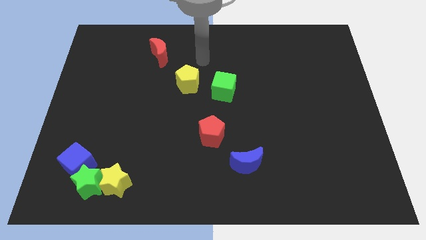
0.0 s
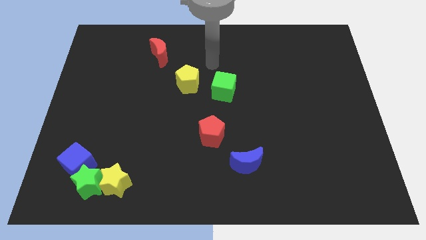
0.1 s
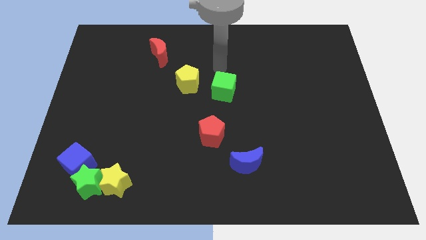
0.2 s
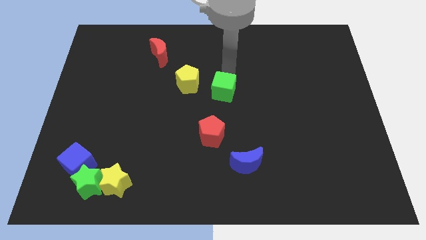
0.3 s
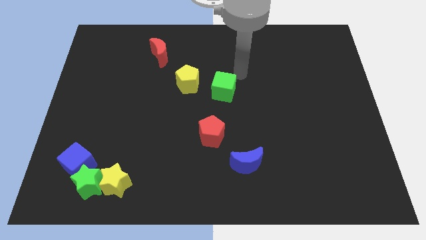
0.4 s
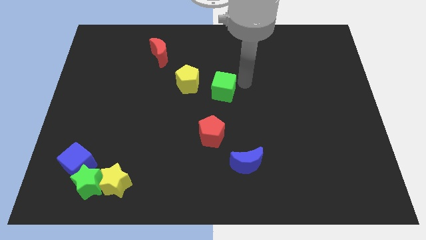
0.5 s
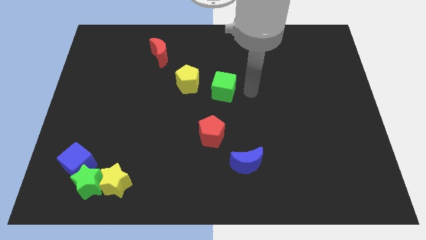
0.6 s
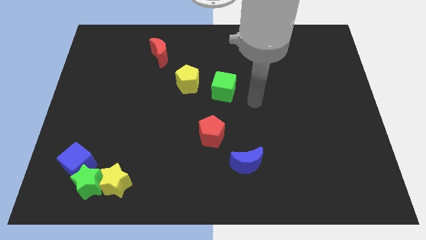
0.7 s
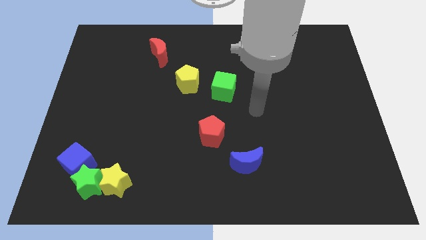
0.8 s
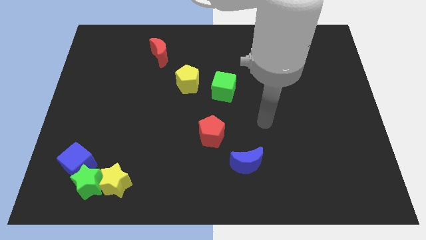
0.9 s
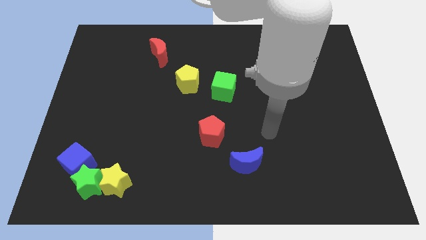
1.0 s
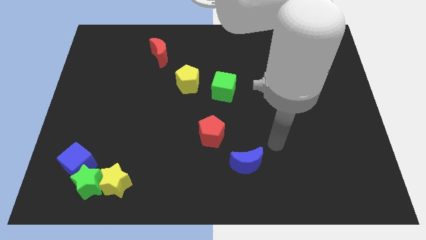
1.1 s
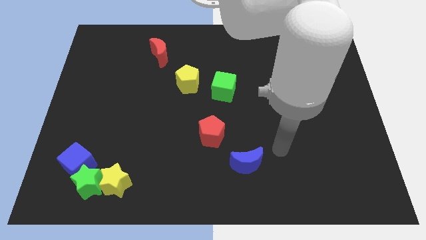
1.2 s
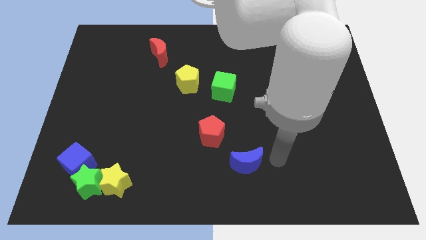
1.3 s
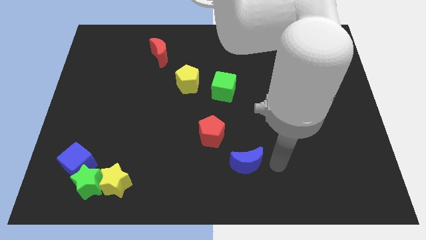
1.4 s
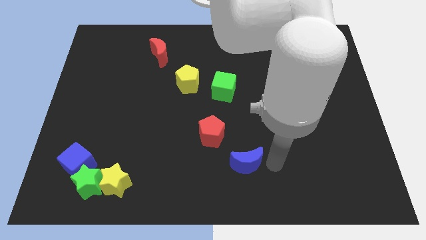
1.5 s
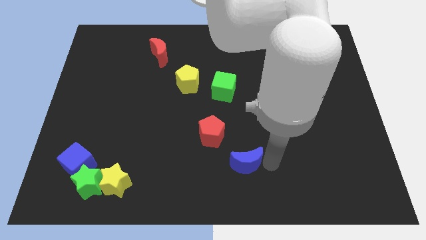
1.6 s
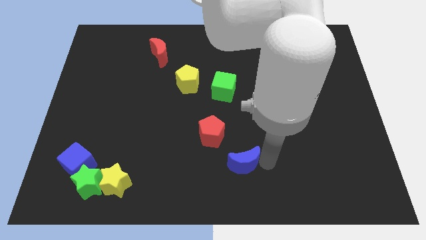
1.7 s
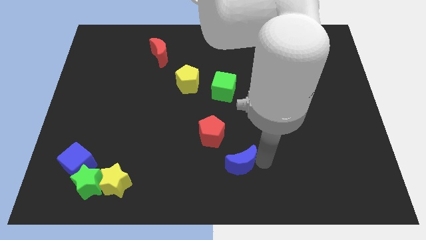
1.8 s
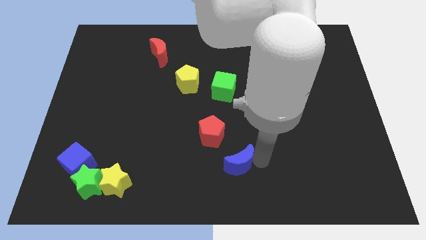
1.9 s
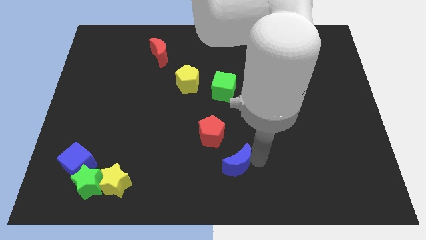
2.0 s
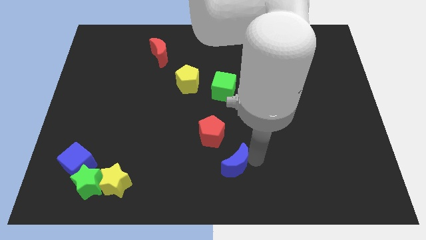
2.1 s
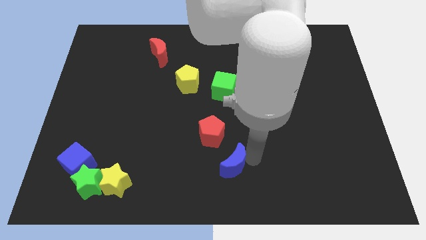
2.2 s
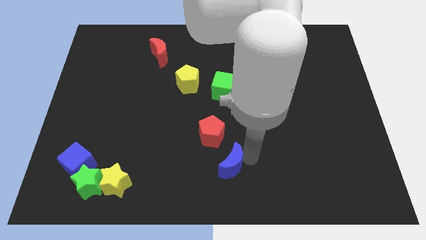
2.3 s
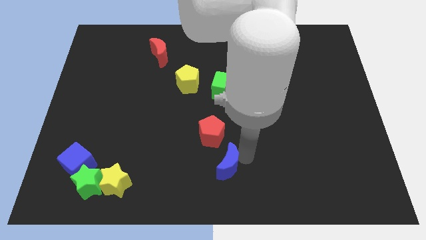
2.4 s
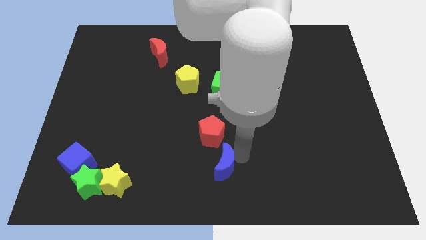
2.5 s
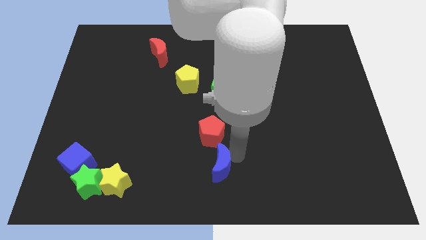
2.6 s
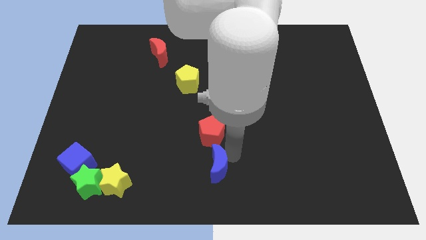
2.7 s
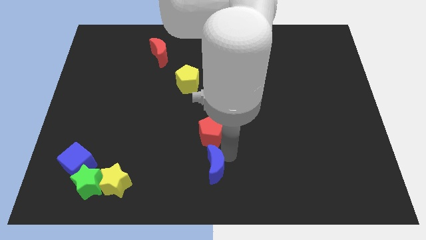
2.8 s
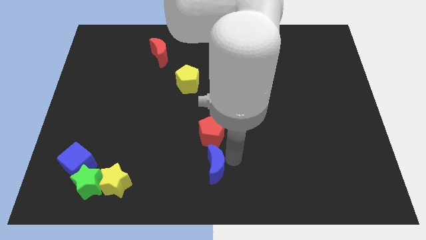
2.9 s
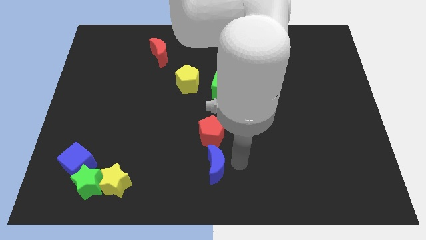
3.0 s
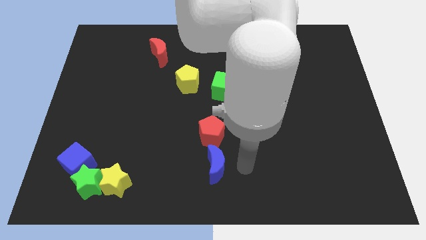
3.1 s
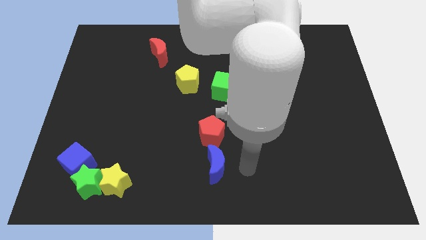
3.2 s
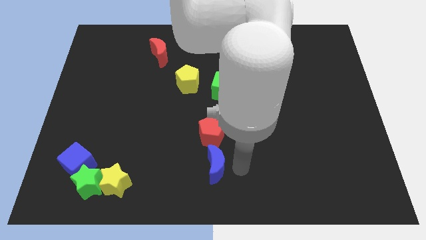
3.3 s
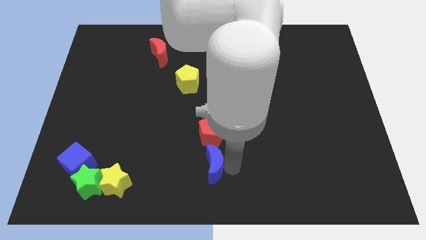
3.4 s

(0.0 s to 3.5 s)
push the blue moon to the left slightly

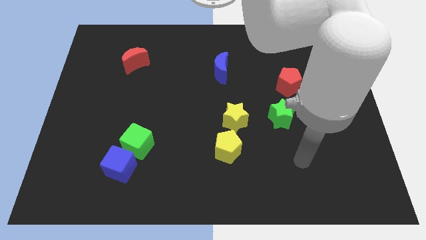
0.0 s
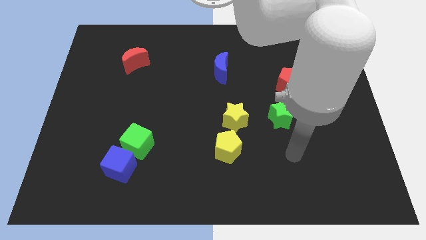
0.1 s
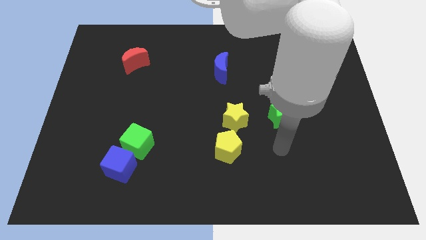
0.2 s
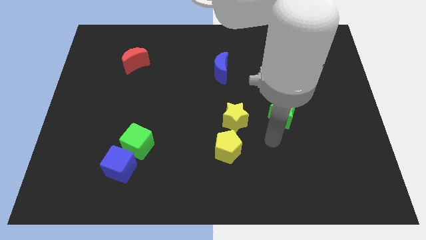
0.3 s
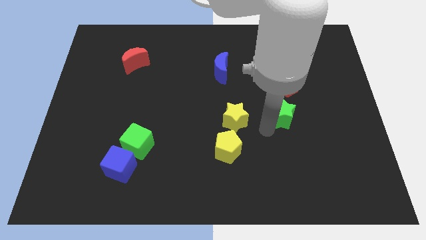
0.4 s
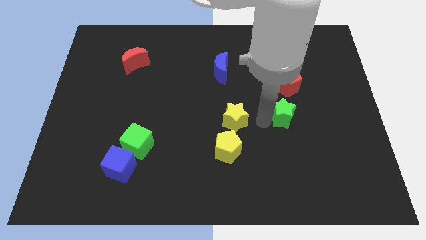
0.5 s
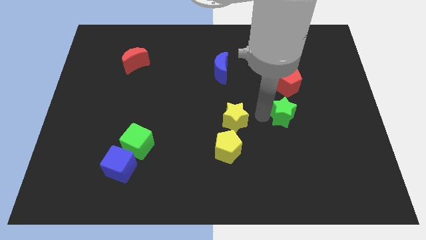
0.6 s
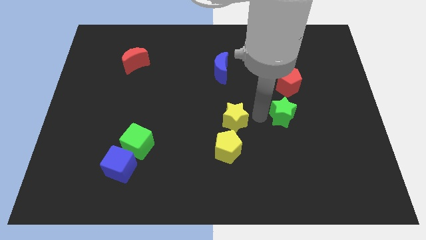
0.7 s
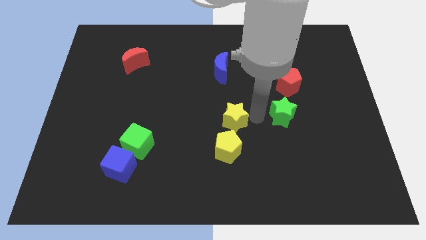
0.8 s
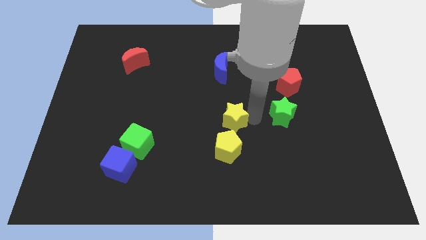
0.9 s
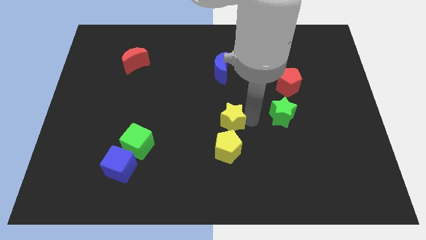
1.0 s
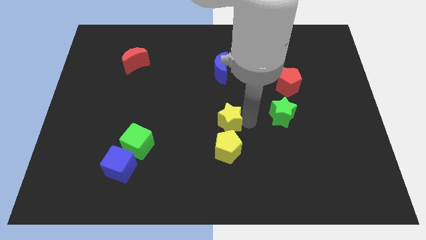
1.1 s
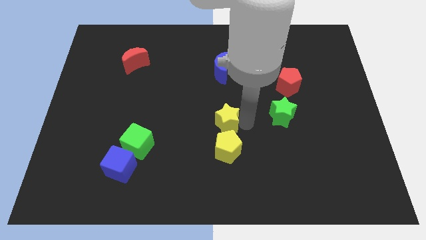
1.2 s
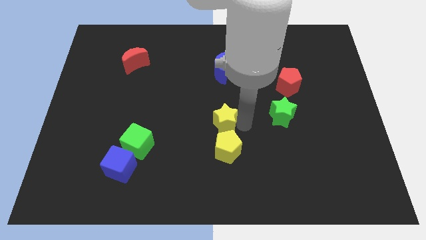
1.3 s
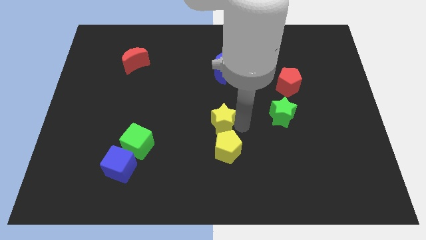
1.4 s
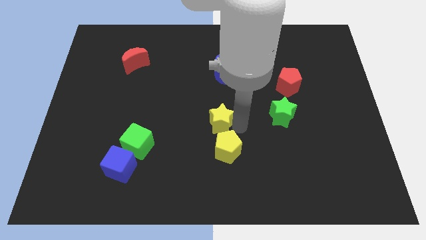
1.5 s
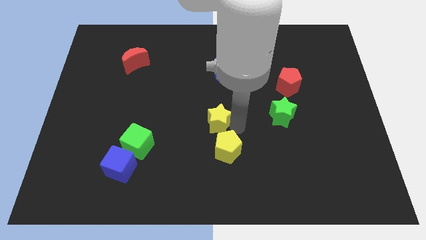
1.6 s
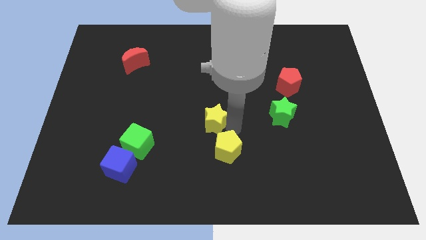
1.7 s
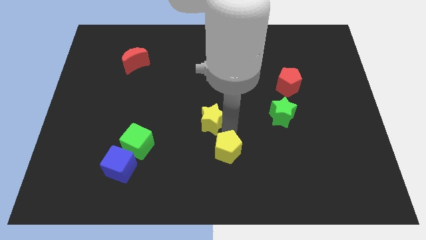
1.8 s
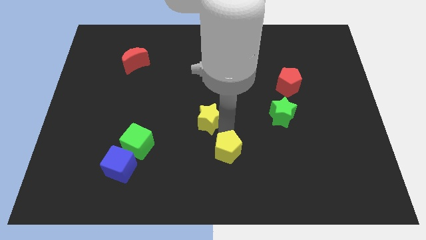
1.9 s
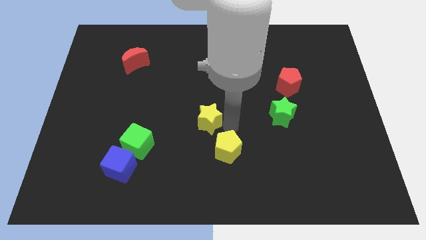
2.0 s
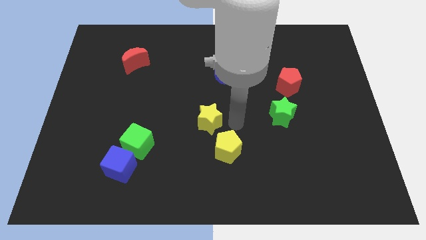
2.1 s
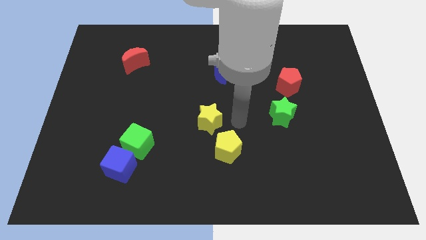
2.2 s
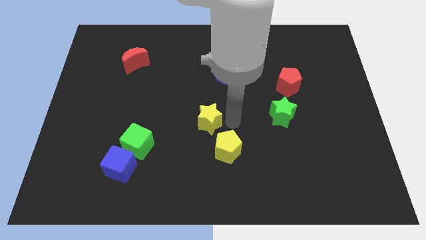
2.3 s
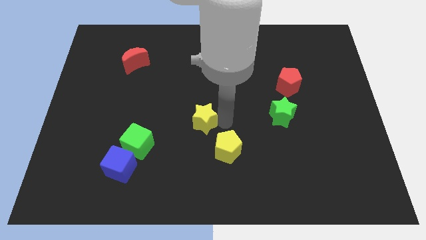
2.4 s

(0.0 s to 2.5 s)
slide the yellow star to the left slightly

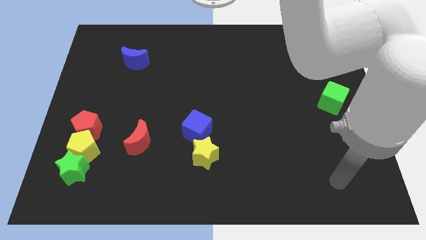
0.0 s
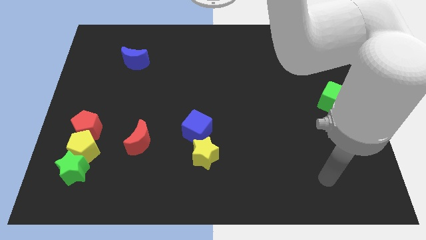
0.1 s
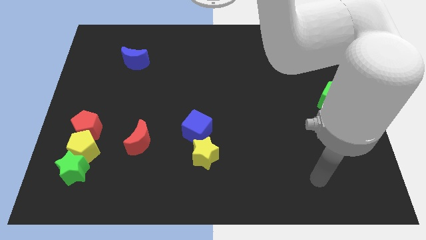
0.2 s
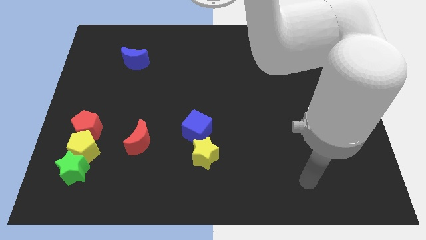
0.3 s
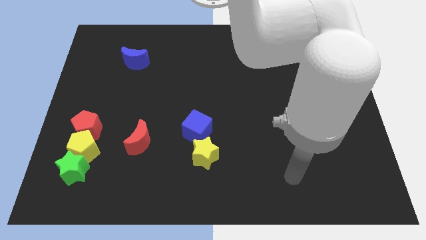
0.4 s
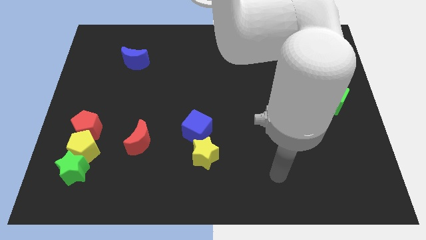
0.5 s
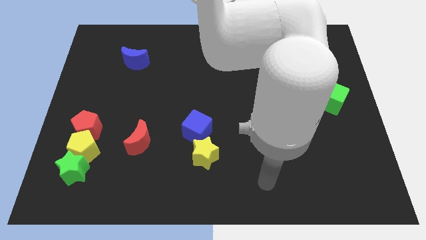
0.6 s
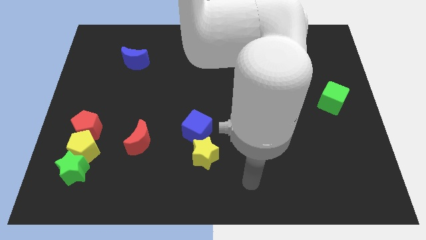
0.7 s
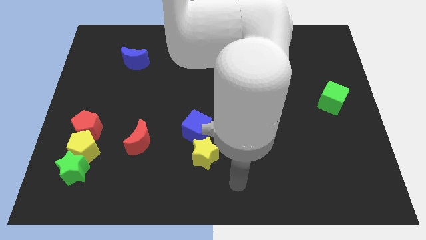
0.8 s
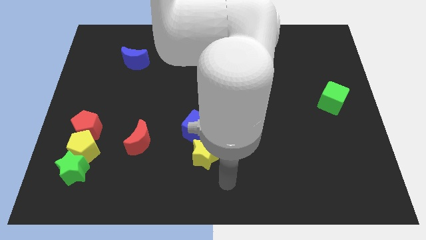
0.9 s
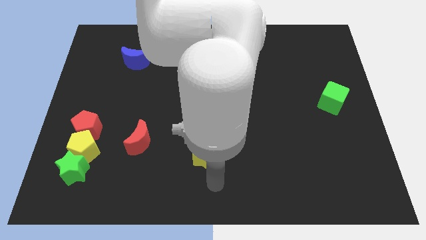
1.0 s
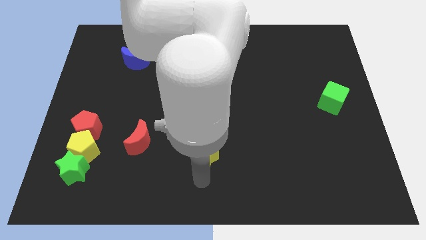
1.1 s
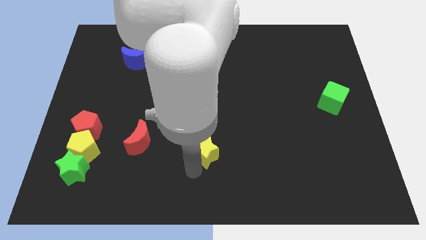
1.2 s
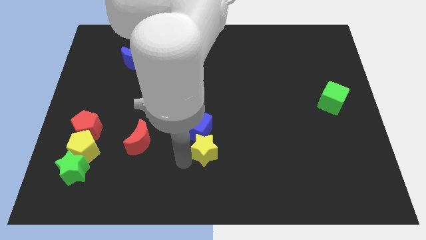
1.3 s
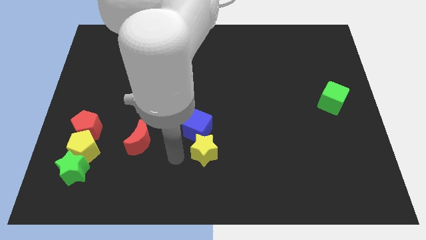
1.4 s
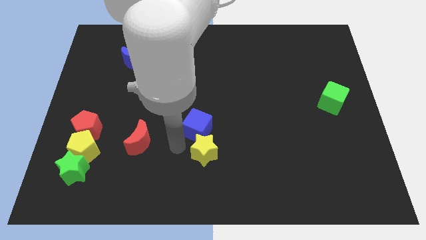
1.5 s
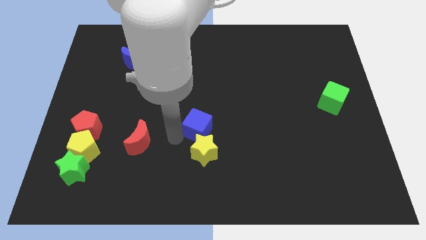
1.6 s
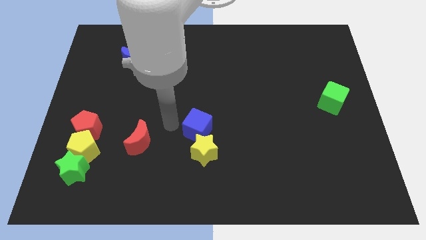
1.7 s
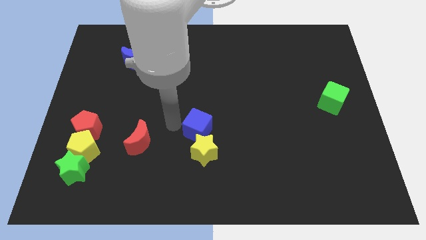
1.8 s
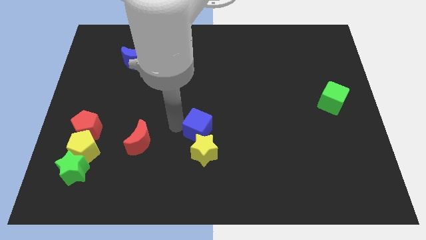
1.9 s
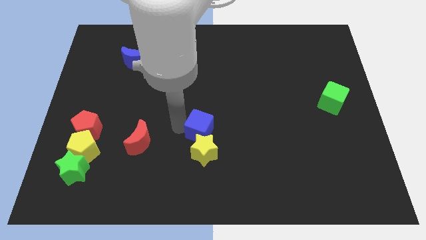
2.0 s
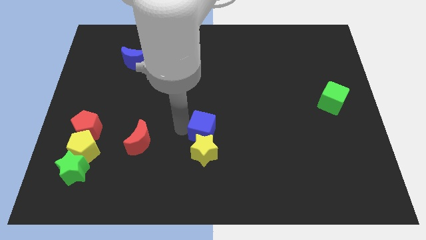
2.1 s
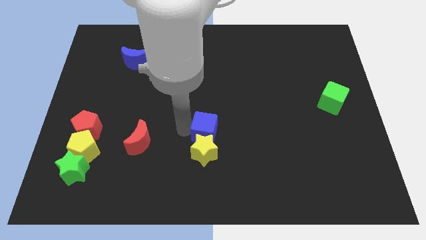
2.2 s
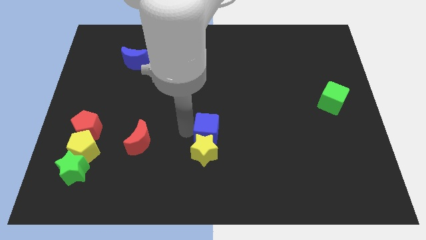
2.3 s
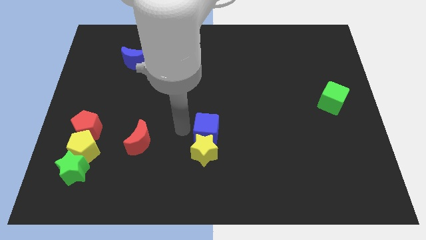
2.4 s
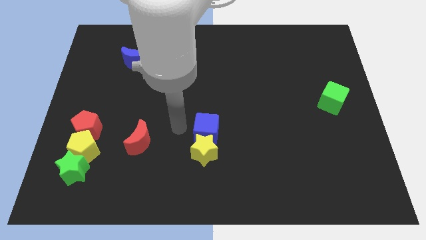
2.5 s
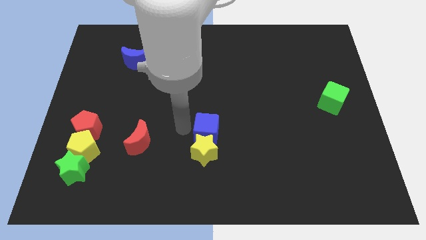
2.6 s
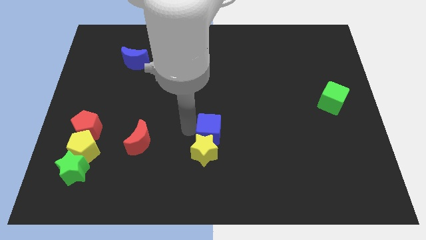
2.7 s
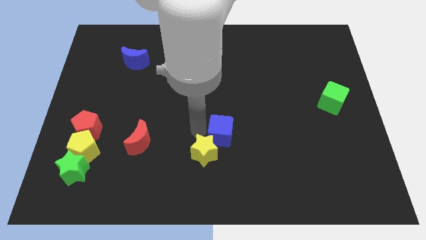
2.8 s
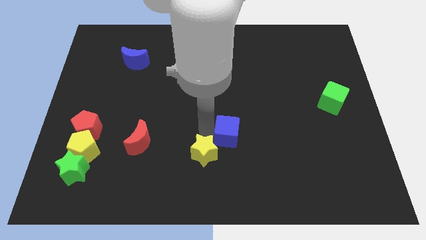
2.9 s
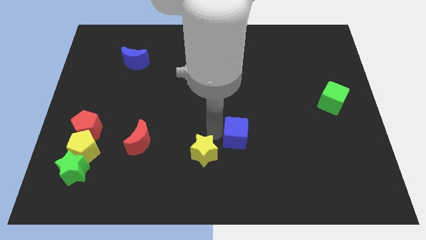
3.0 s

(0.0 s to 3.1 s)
slightly slide the blue cube to the right
